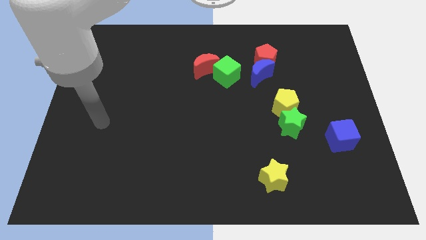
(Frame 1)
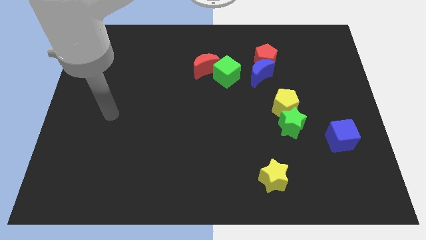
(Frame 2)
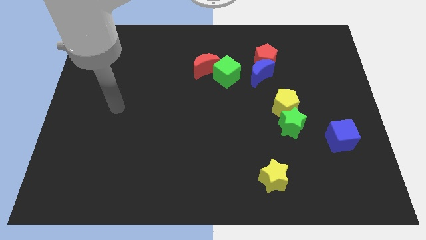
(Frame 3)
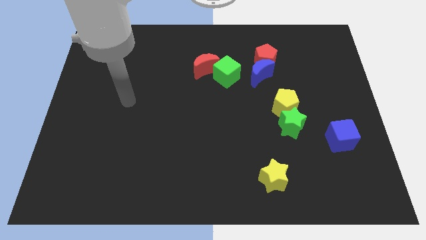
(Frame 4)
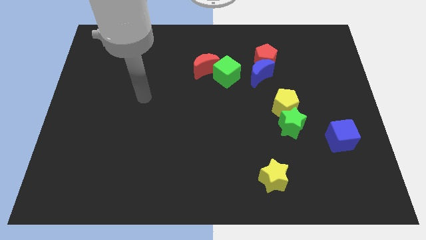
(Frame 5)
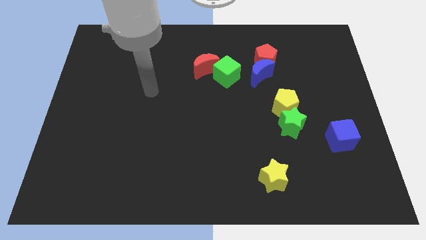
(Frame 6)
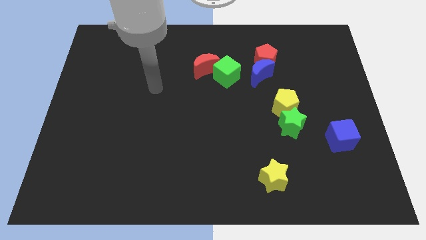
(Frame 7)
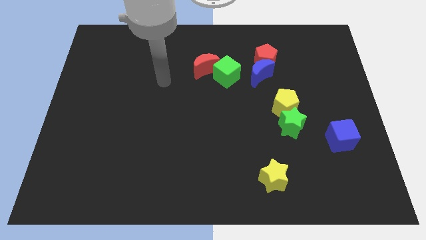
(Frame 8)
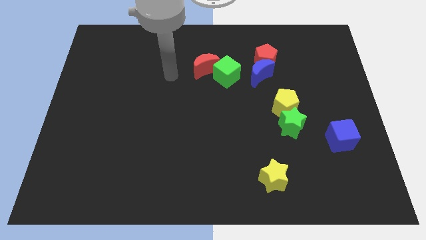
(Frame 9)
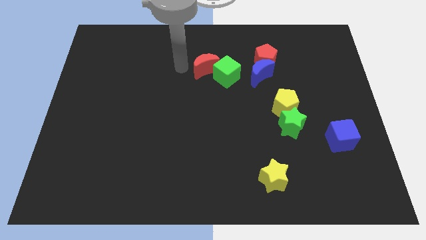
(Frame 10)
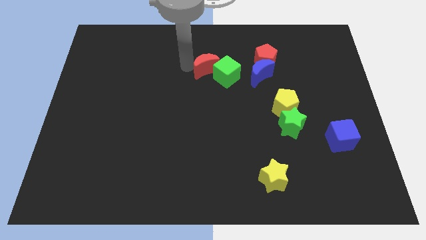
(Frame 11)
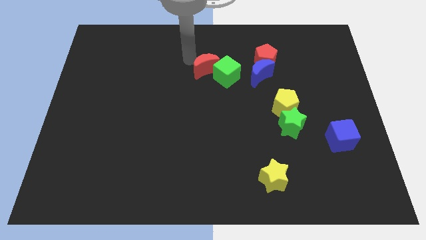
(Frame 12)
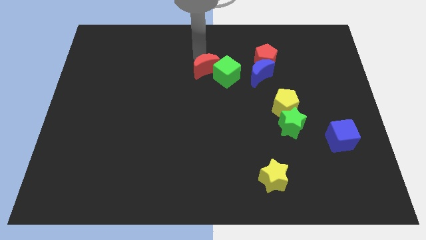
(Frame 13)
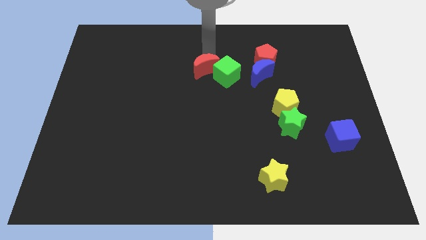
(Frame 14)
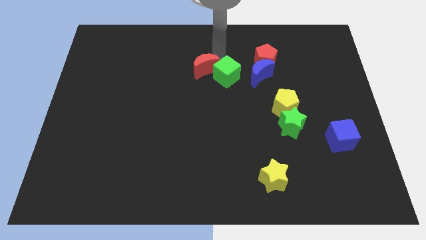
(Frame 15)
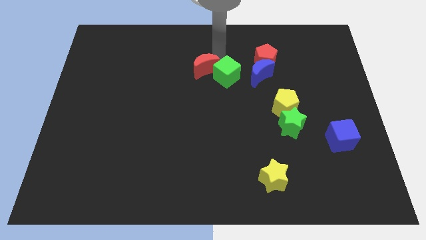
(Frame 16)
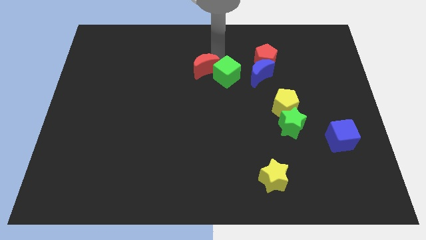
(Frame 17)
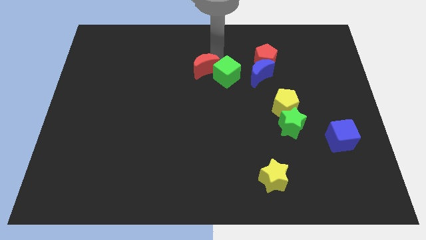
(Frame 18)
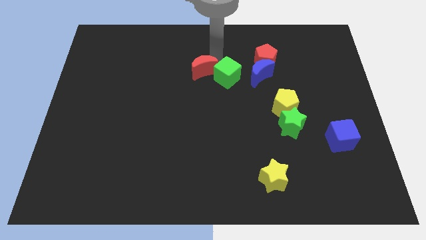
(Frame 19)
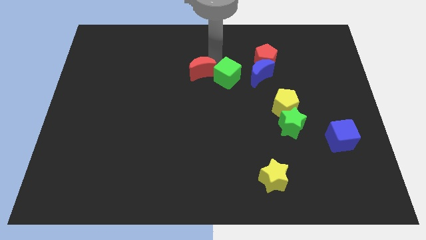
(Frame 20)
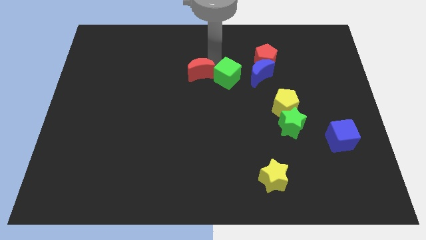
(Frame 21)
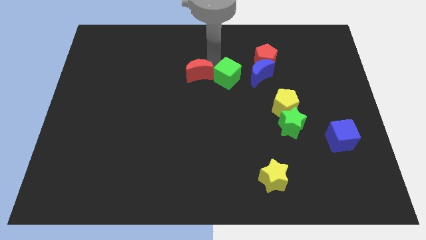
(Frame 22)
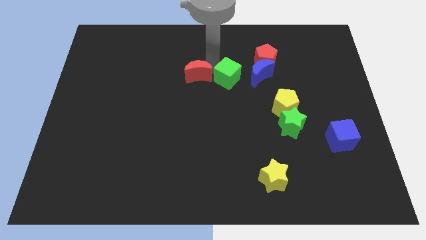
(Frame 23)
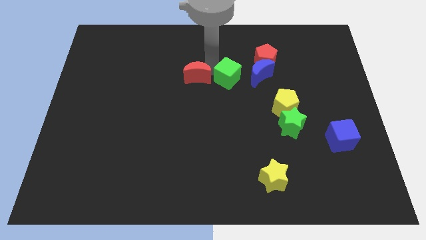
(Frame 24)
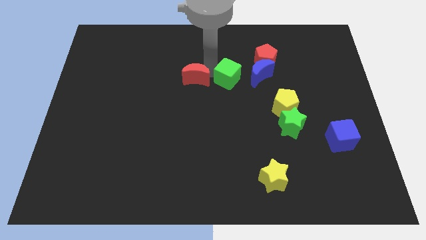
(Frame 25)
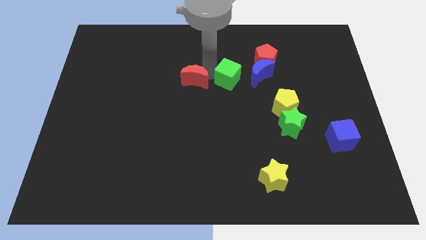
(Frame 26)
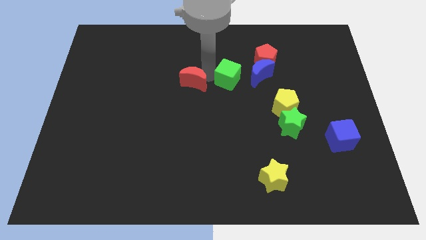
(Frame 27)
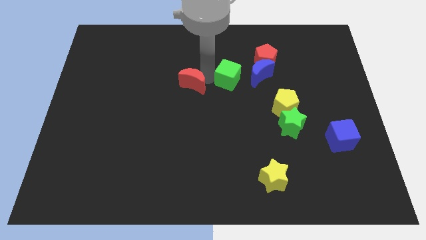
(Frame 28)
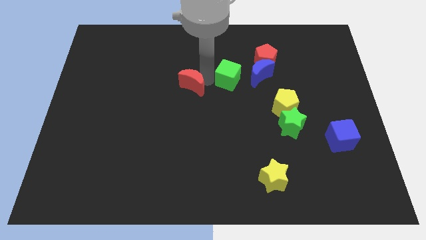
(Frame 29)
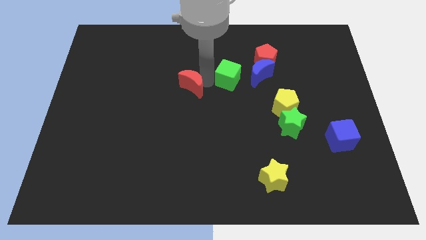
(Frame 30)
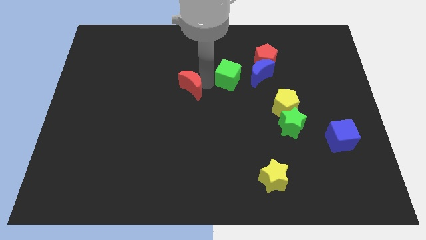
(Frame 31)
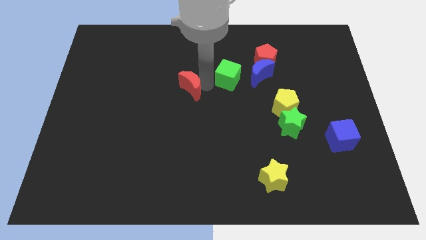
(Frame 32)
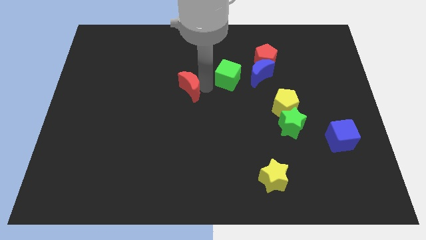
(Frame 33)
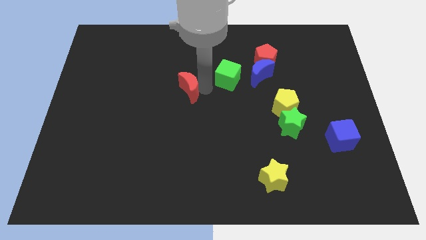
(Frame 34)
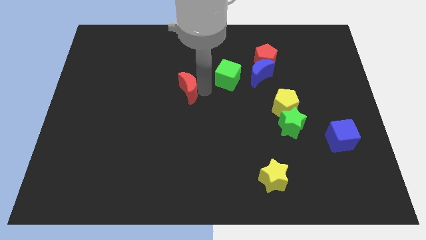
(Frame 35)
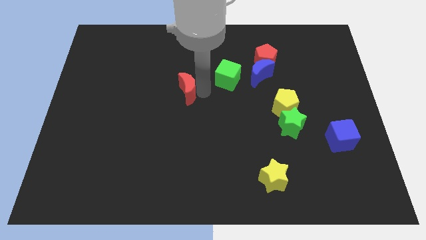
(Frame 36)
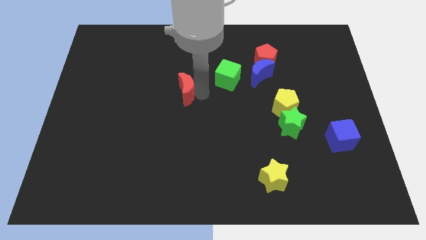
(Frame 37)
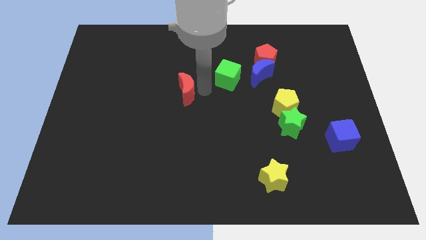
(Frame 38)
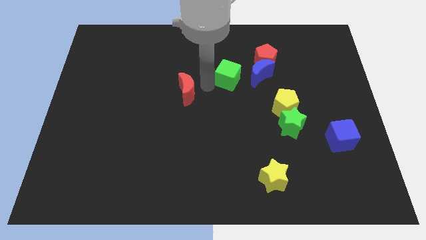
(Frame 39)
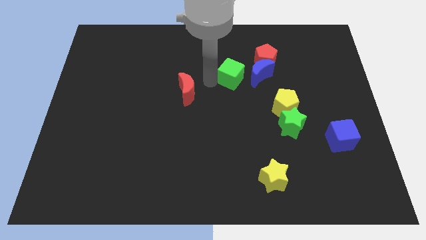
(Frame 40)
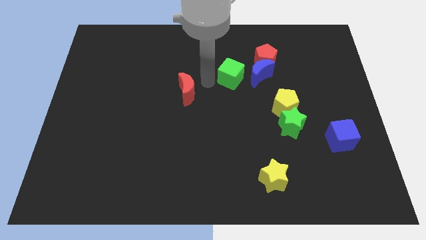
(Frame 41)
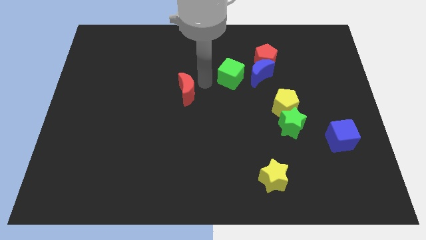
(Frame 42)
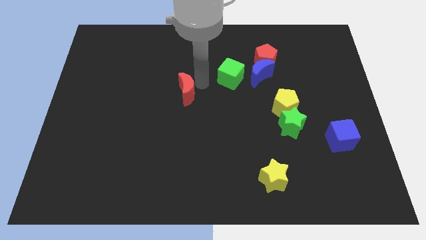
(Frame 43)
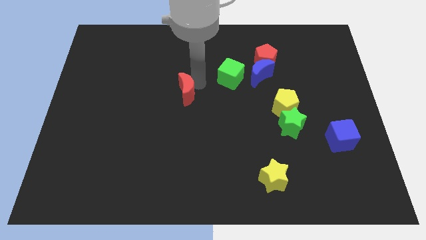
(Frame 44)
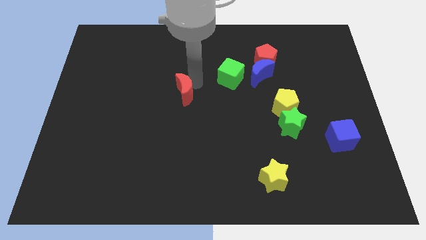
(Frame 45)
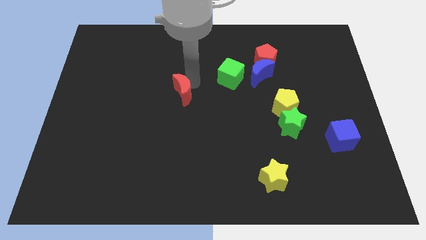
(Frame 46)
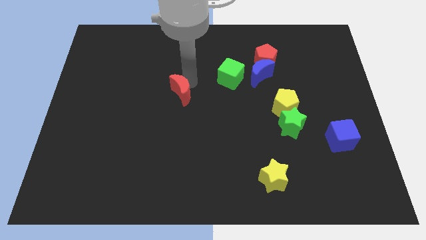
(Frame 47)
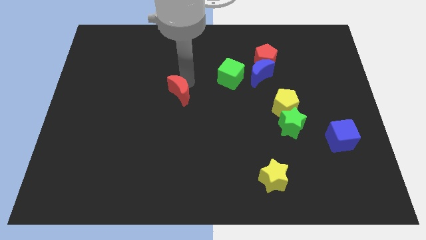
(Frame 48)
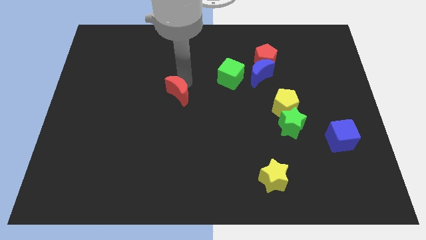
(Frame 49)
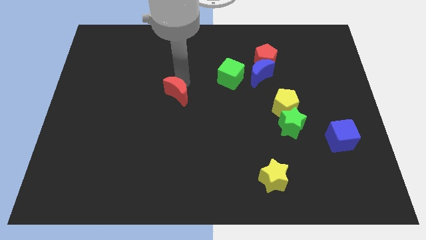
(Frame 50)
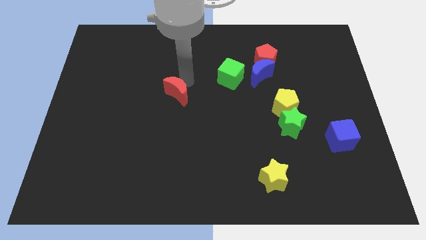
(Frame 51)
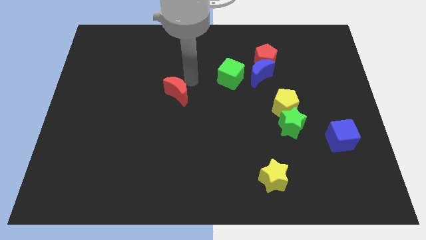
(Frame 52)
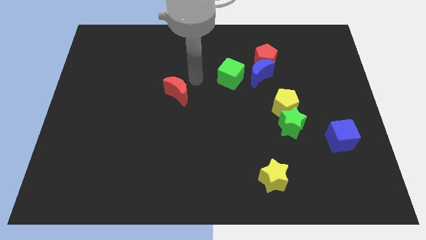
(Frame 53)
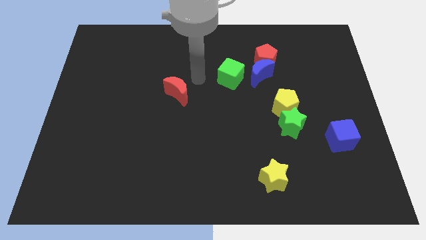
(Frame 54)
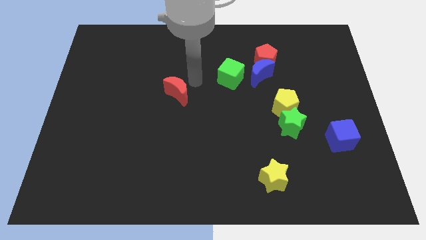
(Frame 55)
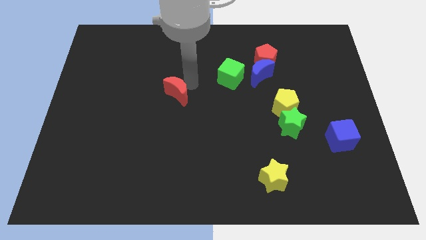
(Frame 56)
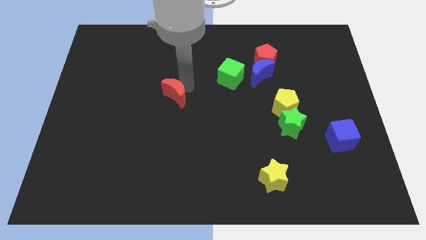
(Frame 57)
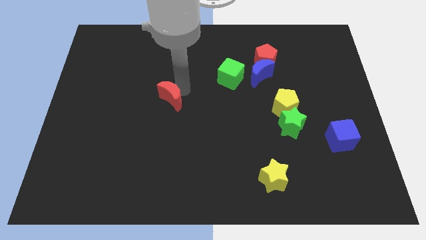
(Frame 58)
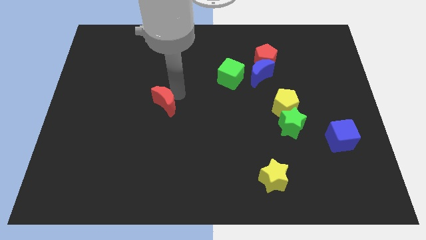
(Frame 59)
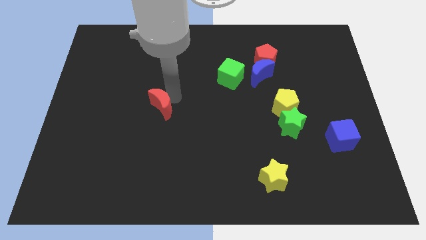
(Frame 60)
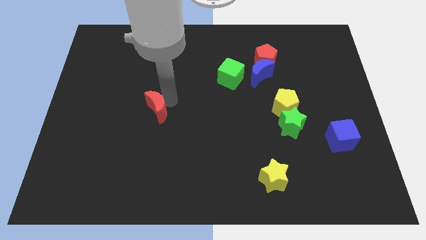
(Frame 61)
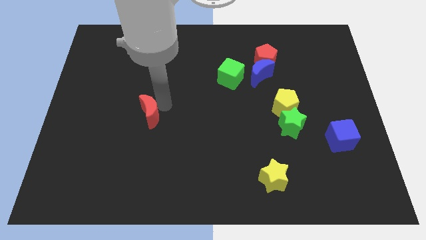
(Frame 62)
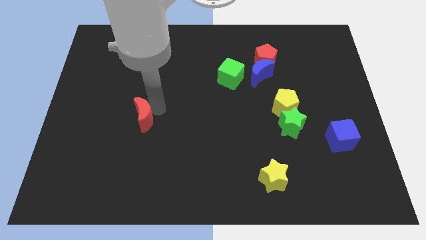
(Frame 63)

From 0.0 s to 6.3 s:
slide the red moon diagonally downwards and left

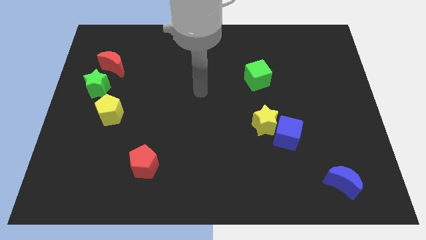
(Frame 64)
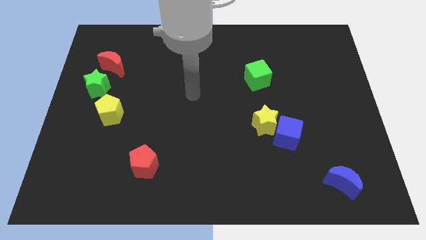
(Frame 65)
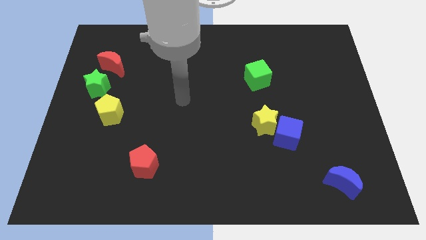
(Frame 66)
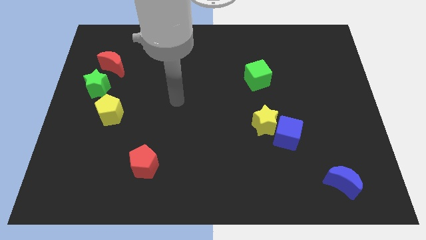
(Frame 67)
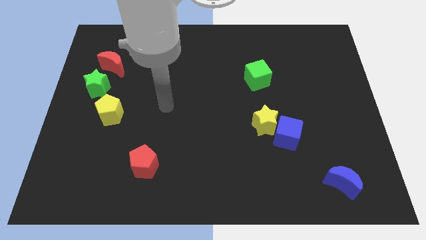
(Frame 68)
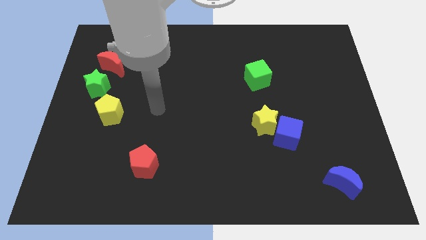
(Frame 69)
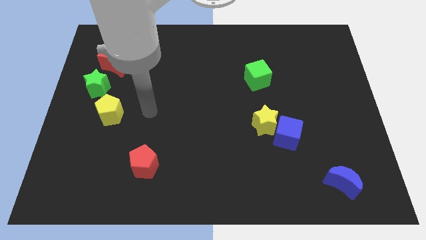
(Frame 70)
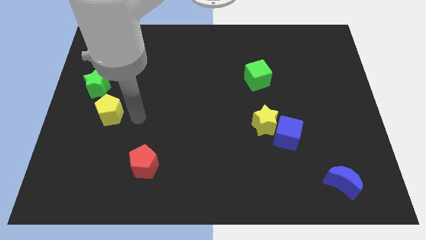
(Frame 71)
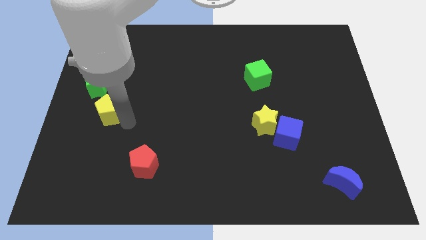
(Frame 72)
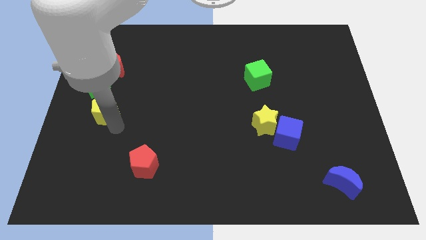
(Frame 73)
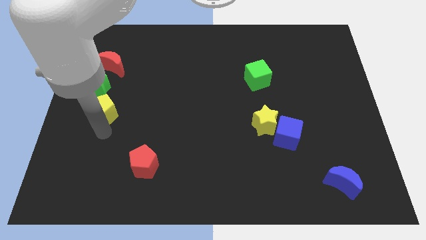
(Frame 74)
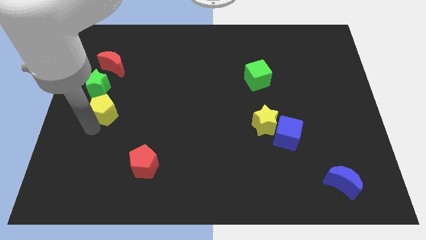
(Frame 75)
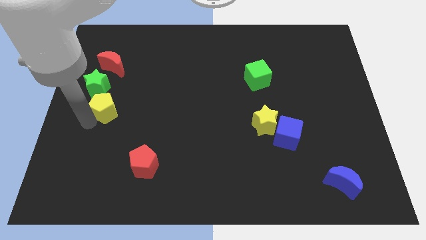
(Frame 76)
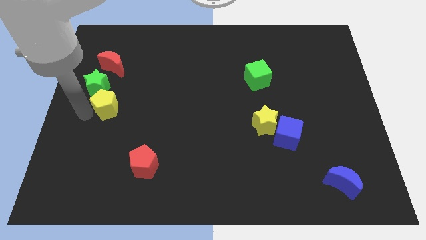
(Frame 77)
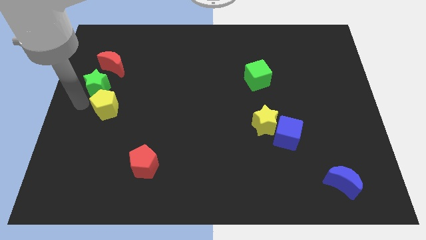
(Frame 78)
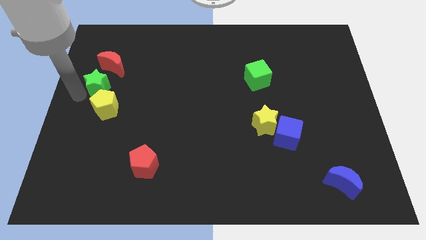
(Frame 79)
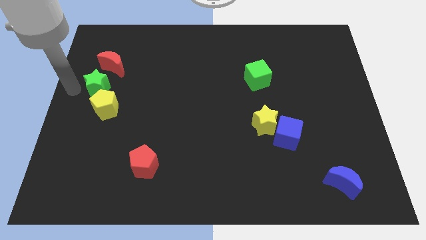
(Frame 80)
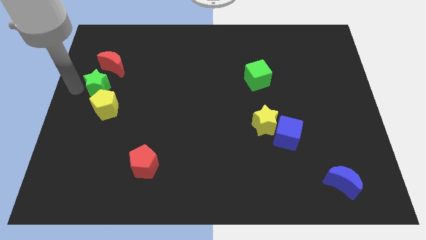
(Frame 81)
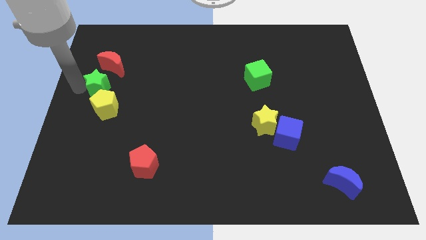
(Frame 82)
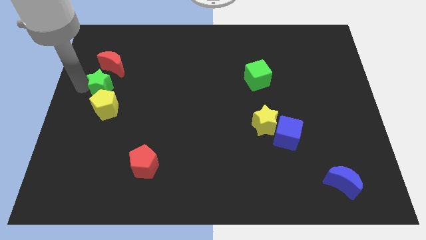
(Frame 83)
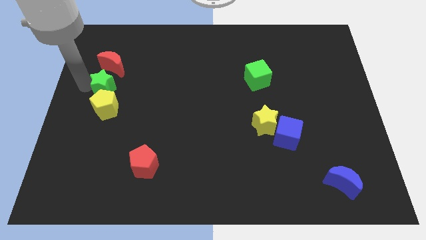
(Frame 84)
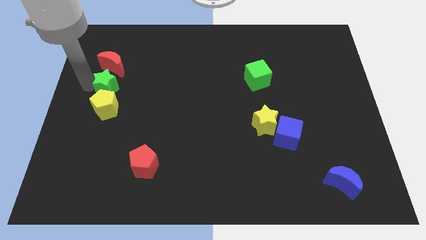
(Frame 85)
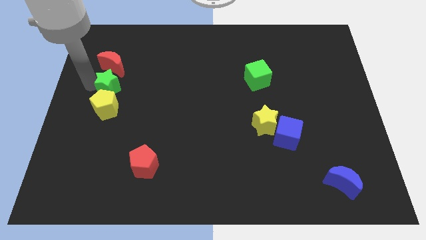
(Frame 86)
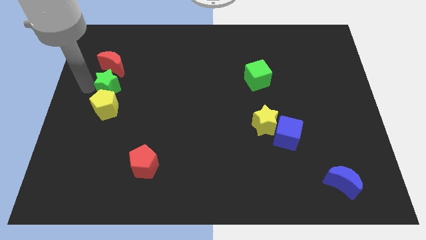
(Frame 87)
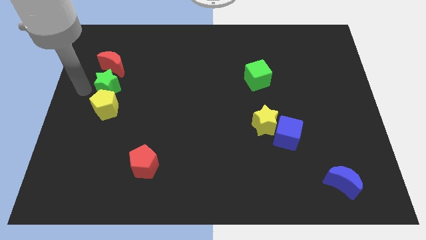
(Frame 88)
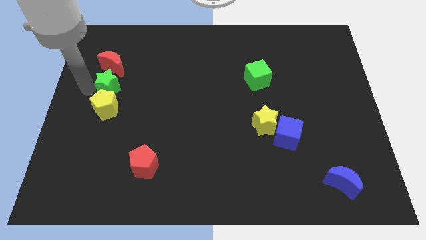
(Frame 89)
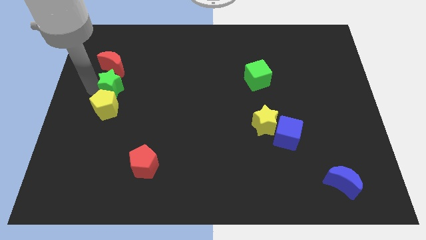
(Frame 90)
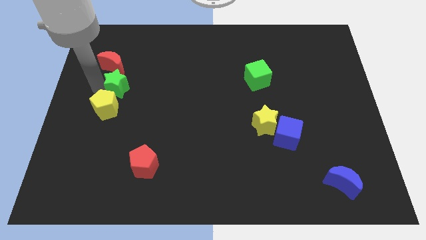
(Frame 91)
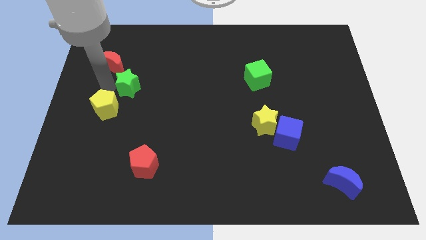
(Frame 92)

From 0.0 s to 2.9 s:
slightly move the green star to the right
